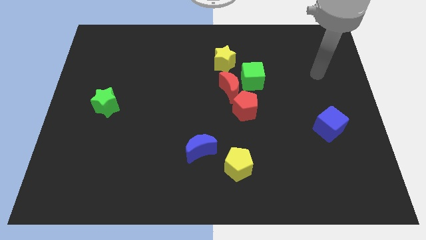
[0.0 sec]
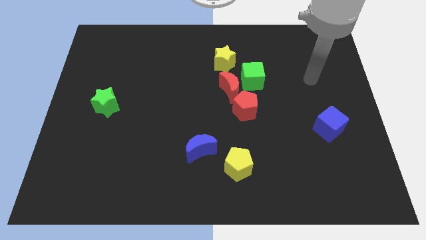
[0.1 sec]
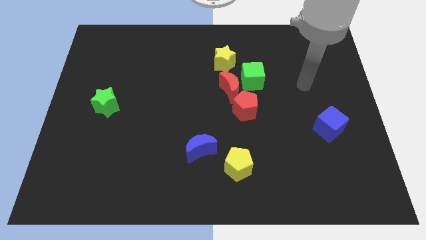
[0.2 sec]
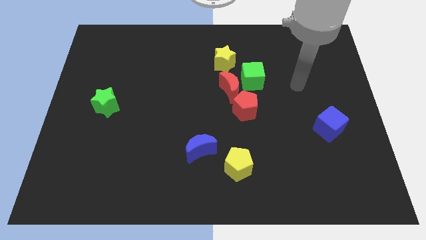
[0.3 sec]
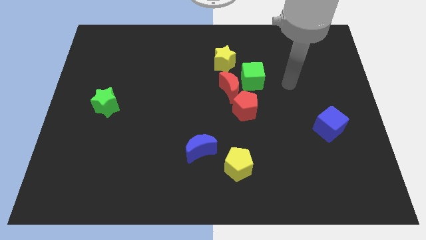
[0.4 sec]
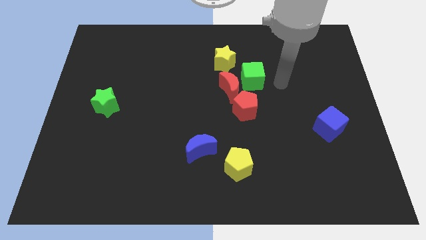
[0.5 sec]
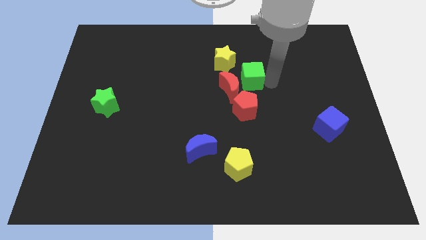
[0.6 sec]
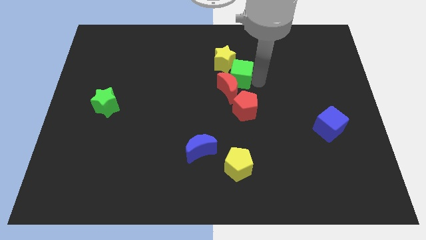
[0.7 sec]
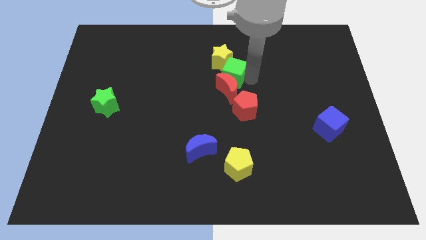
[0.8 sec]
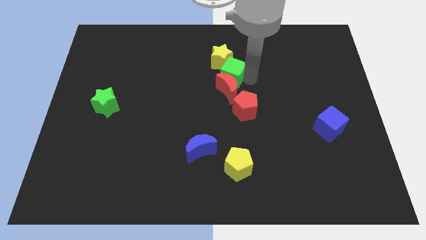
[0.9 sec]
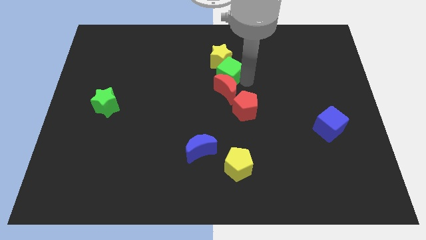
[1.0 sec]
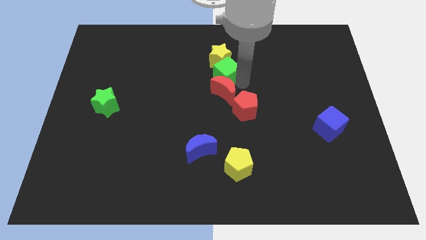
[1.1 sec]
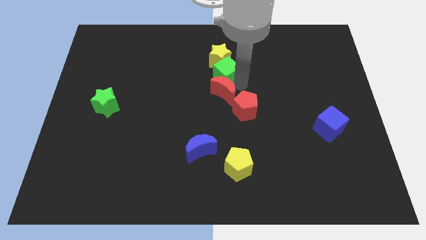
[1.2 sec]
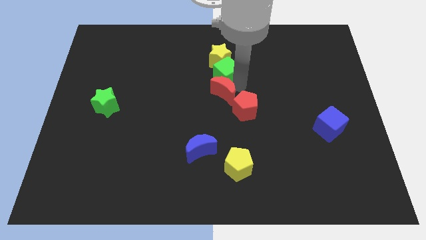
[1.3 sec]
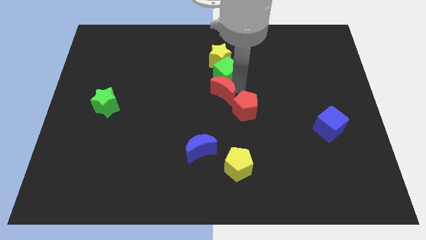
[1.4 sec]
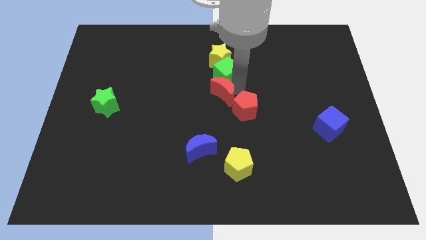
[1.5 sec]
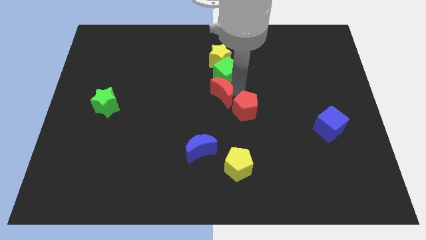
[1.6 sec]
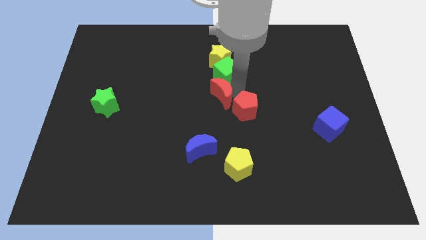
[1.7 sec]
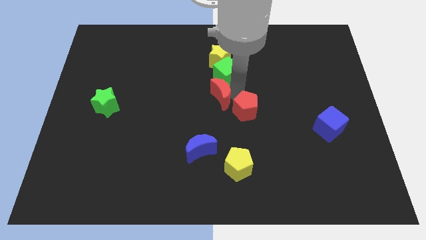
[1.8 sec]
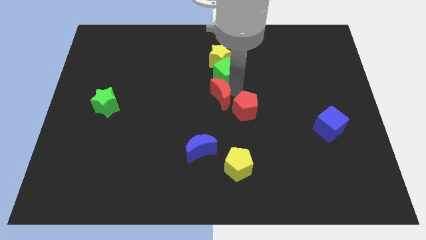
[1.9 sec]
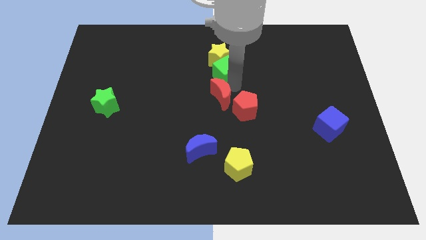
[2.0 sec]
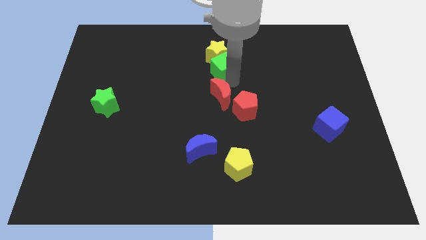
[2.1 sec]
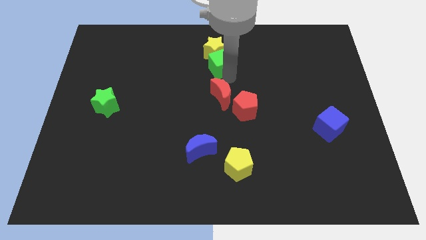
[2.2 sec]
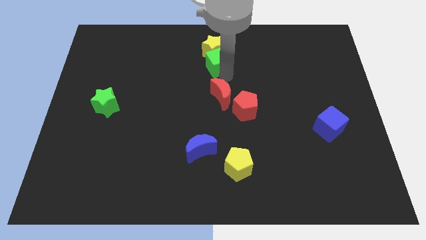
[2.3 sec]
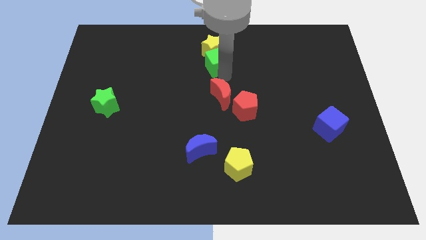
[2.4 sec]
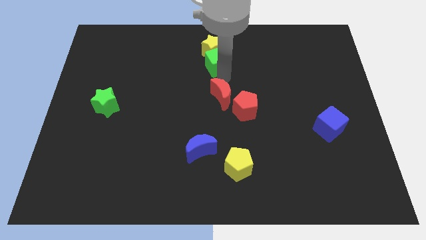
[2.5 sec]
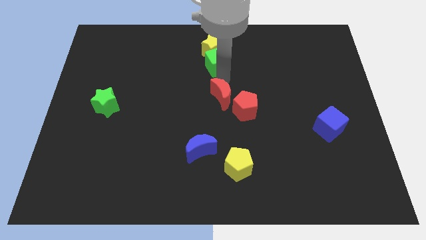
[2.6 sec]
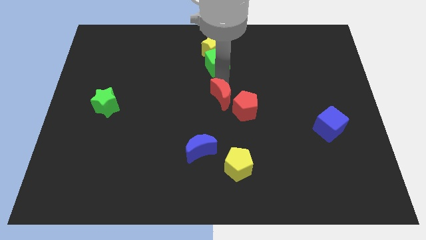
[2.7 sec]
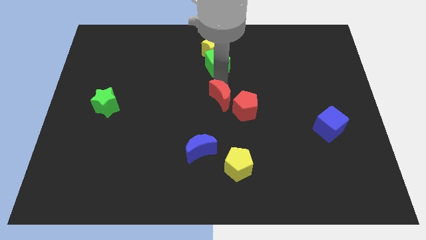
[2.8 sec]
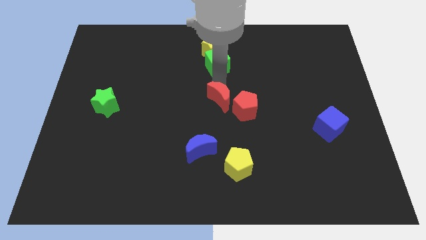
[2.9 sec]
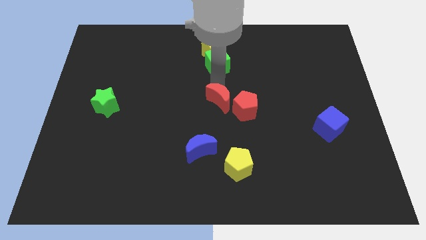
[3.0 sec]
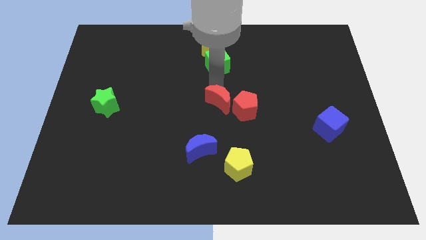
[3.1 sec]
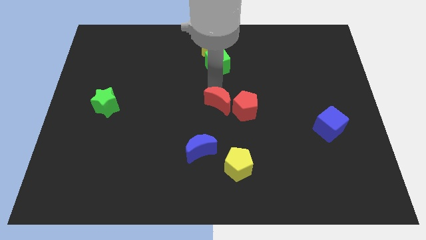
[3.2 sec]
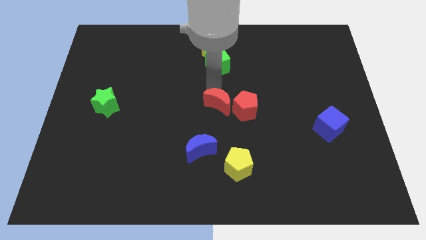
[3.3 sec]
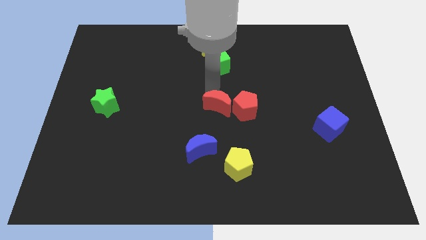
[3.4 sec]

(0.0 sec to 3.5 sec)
move the red moon away from the group

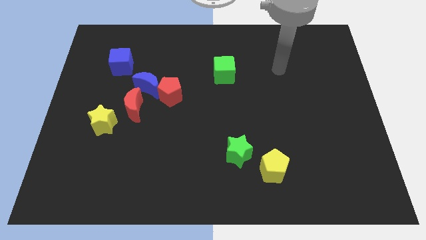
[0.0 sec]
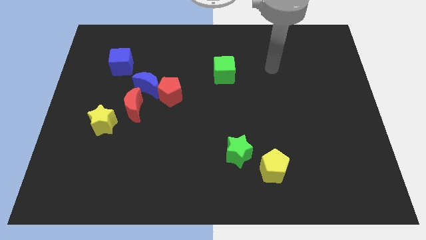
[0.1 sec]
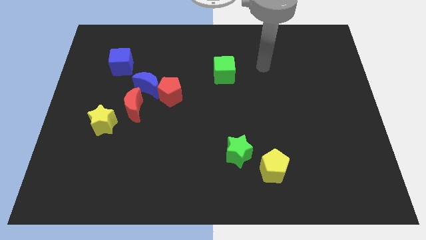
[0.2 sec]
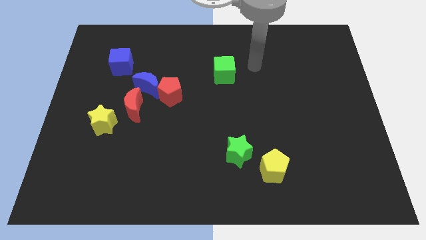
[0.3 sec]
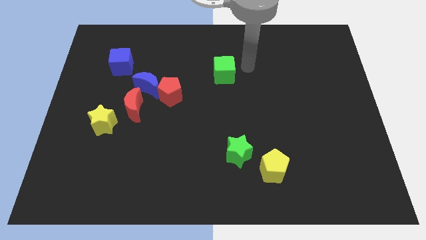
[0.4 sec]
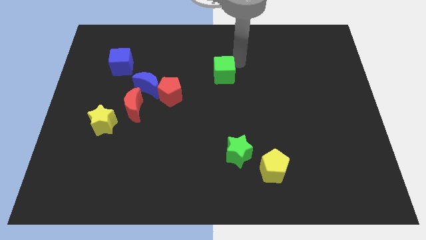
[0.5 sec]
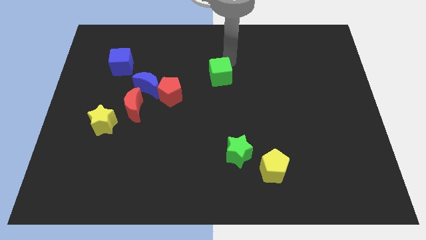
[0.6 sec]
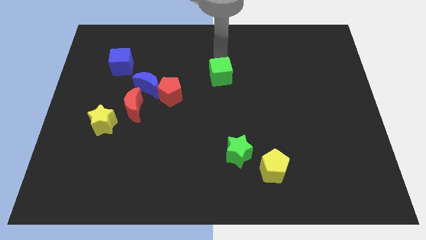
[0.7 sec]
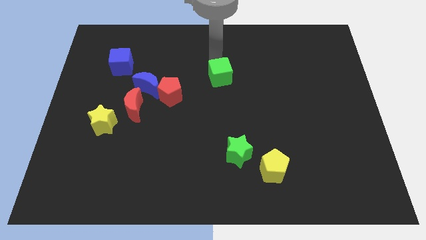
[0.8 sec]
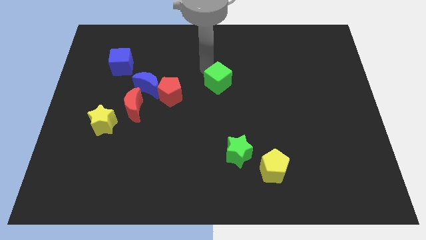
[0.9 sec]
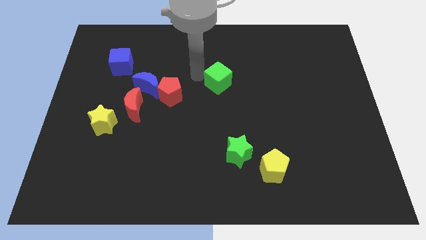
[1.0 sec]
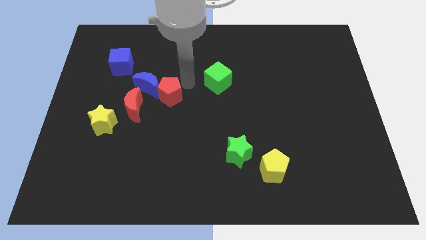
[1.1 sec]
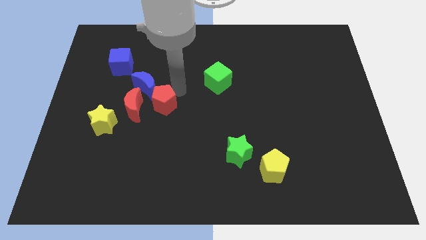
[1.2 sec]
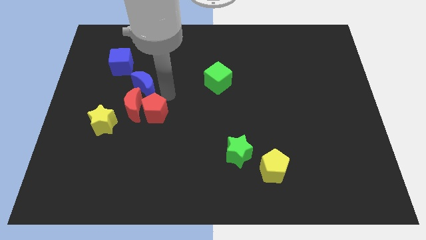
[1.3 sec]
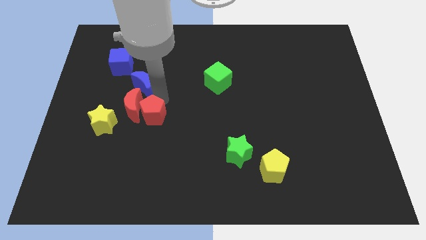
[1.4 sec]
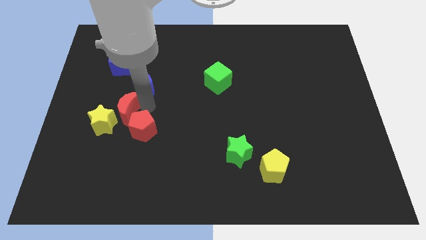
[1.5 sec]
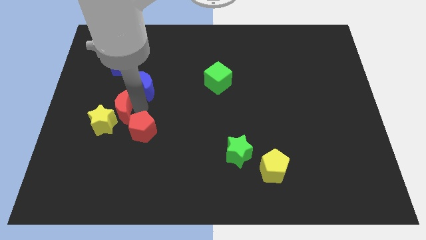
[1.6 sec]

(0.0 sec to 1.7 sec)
separate the blue moon from the red pentagon and red moon

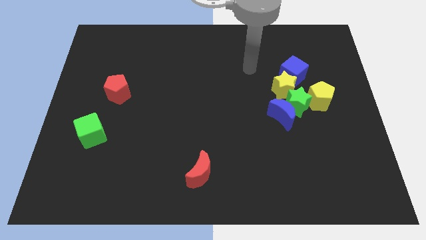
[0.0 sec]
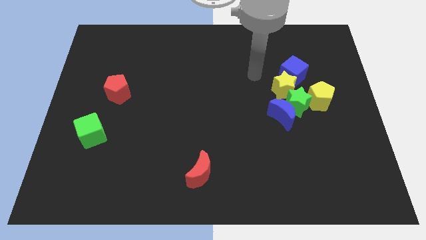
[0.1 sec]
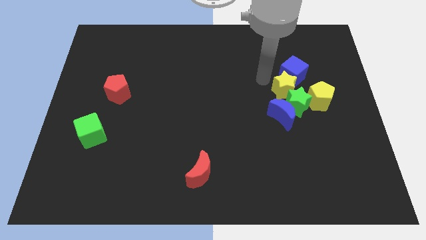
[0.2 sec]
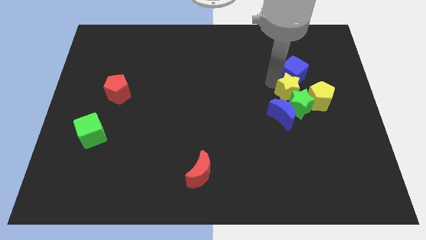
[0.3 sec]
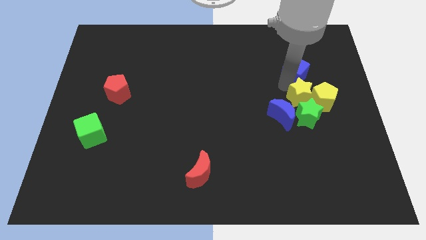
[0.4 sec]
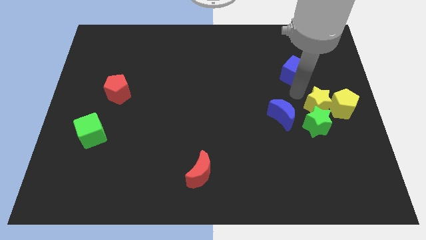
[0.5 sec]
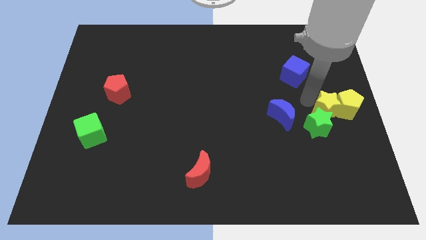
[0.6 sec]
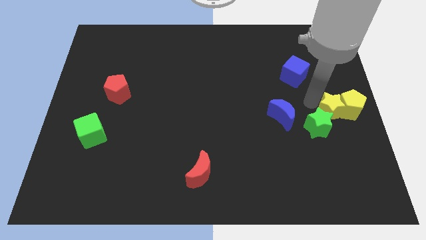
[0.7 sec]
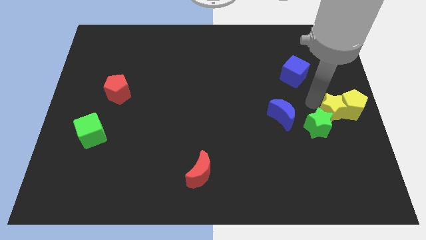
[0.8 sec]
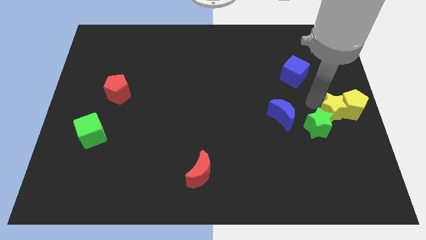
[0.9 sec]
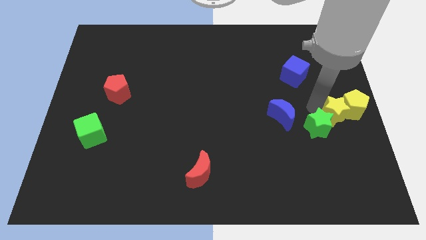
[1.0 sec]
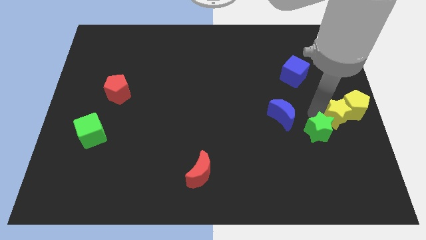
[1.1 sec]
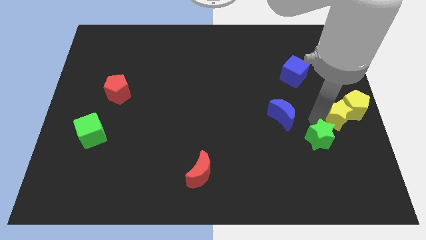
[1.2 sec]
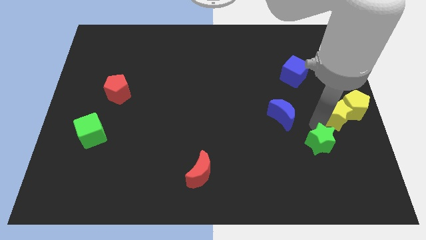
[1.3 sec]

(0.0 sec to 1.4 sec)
pull the green star apart from the clump

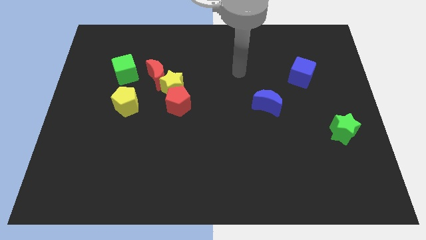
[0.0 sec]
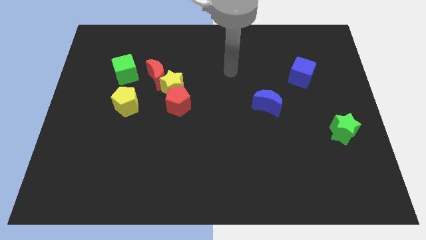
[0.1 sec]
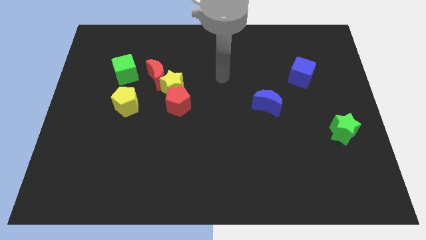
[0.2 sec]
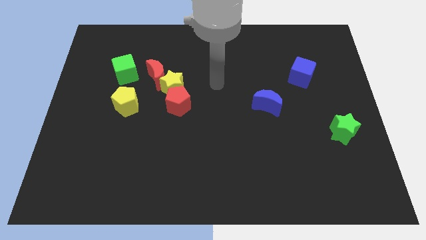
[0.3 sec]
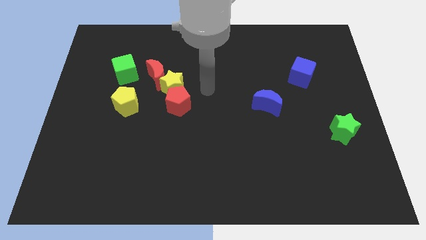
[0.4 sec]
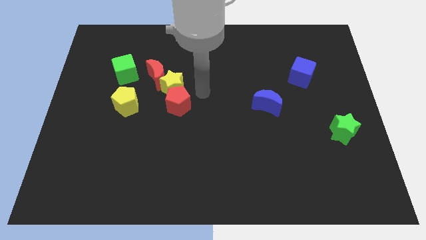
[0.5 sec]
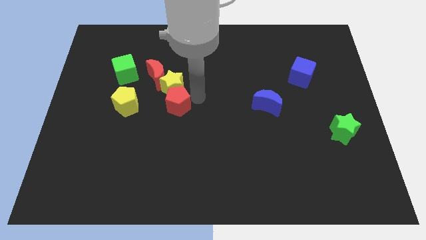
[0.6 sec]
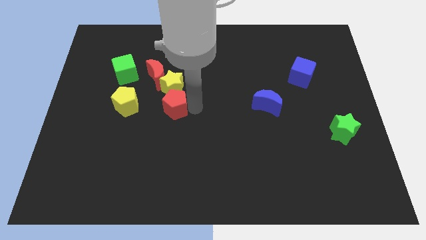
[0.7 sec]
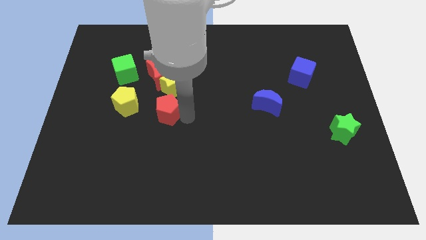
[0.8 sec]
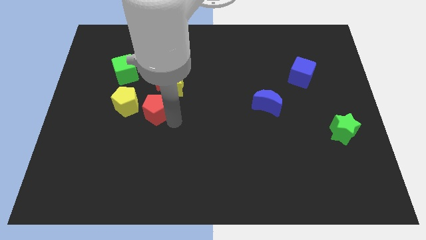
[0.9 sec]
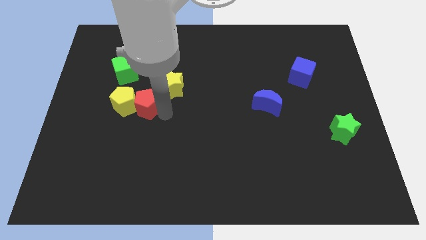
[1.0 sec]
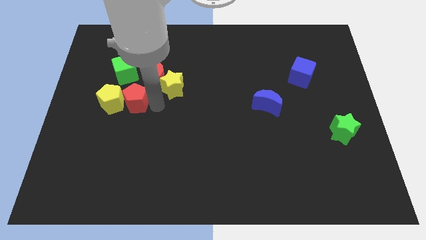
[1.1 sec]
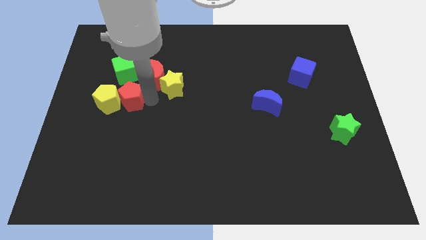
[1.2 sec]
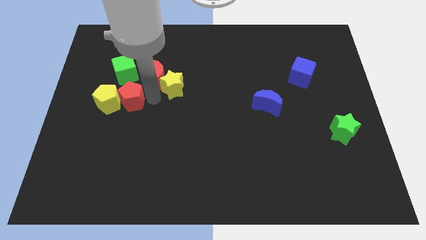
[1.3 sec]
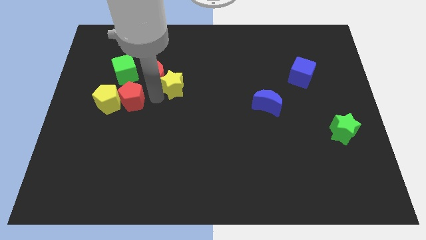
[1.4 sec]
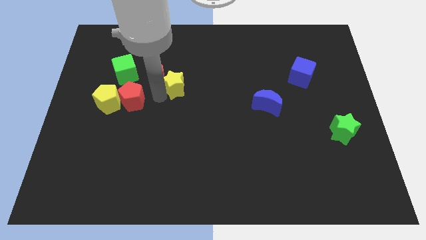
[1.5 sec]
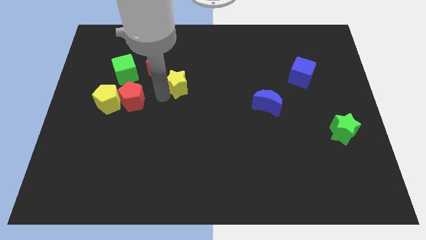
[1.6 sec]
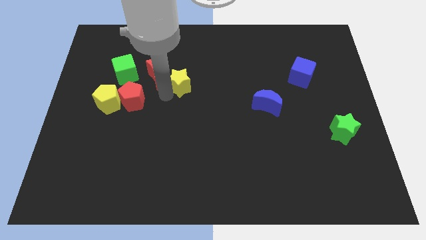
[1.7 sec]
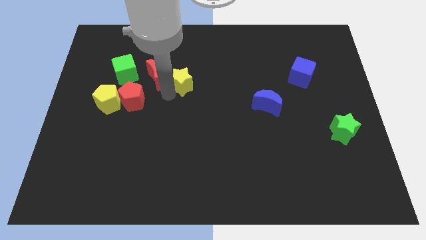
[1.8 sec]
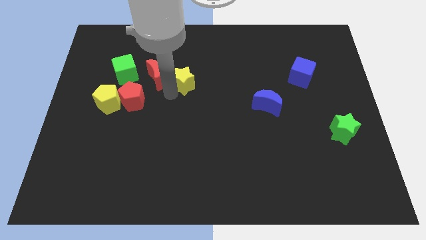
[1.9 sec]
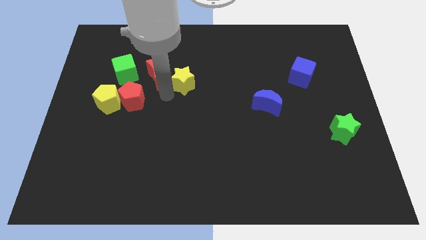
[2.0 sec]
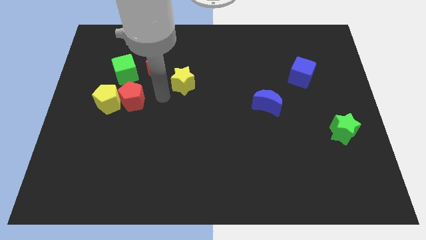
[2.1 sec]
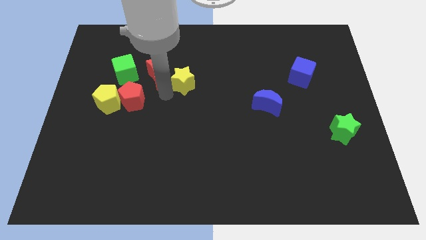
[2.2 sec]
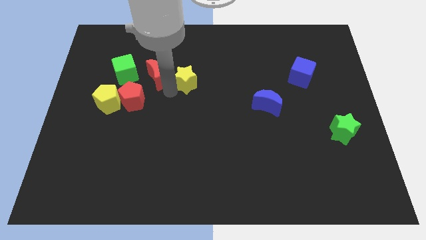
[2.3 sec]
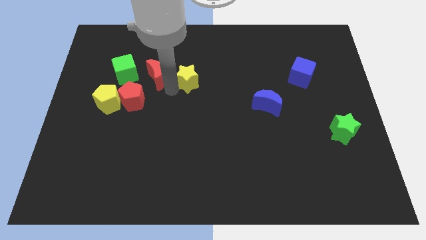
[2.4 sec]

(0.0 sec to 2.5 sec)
pull the yellow star apart from the red moon and red pentagon

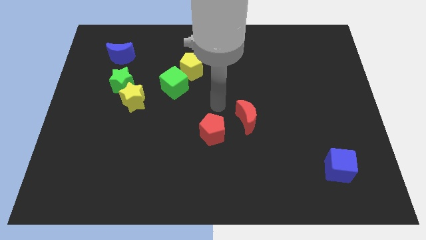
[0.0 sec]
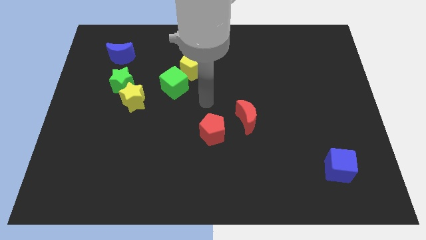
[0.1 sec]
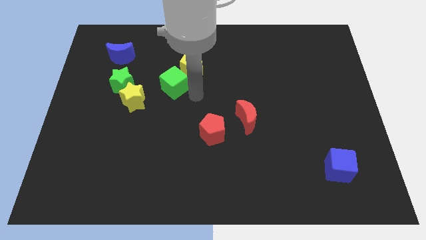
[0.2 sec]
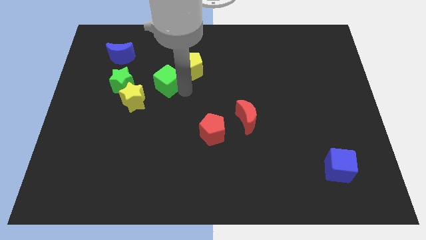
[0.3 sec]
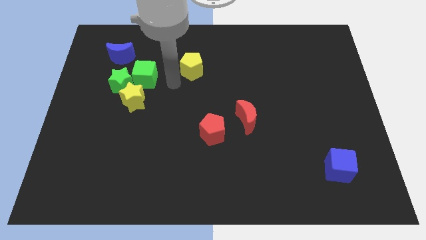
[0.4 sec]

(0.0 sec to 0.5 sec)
separate the yellow pentagon from the green cube
